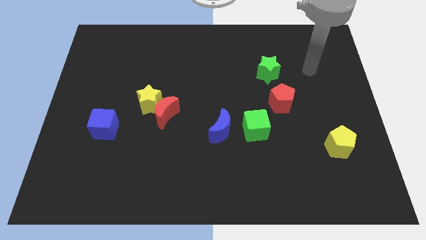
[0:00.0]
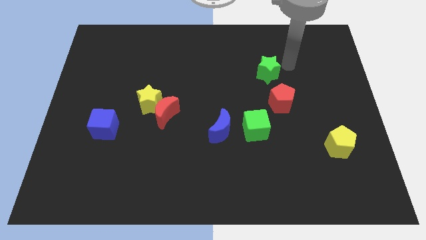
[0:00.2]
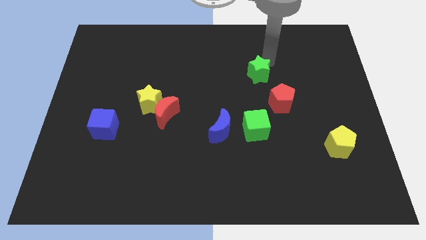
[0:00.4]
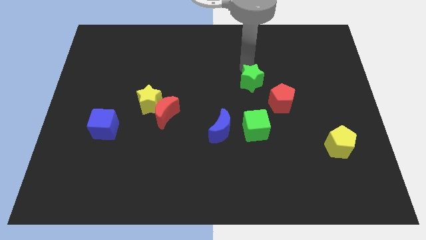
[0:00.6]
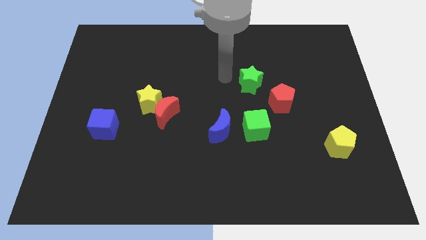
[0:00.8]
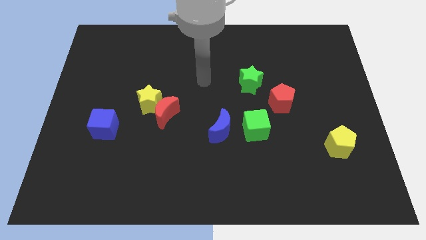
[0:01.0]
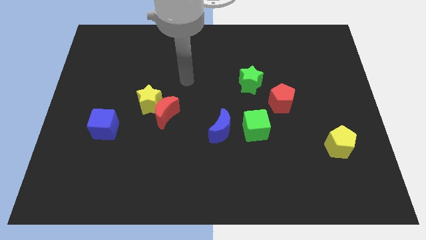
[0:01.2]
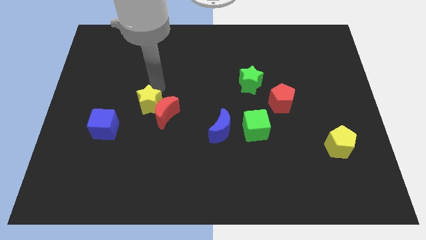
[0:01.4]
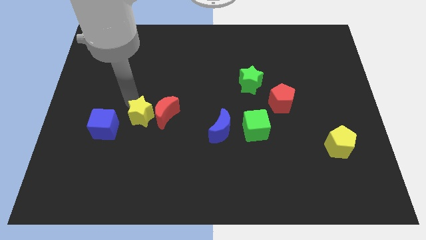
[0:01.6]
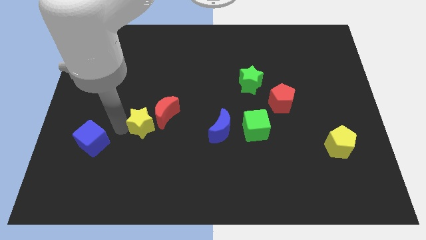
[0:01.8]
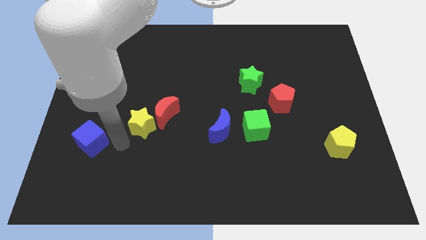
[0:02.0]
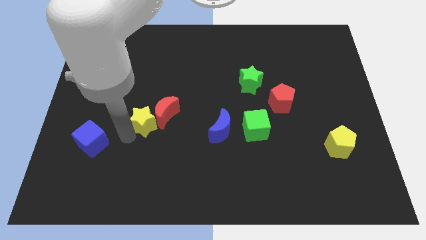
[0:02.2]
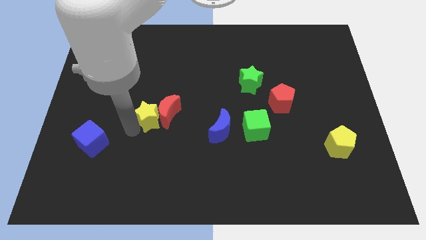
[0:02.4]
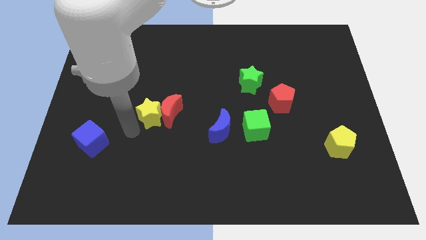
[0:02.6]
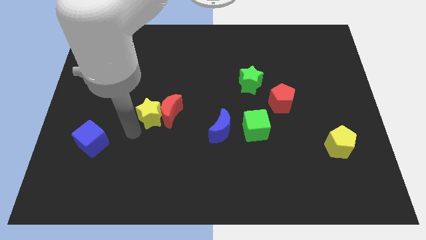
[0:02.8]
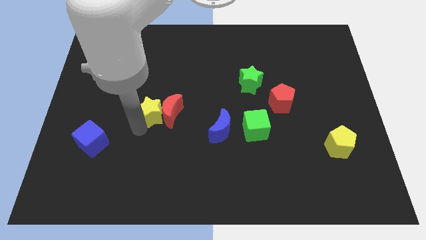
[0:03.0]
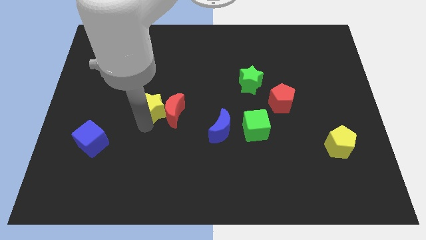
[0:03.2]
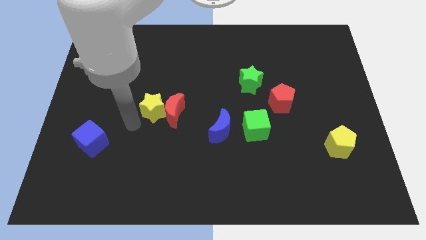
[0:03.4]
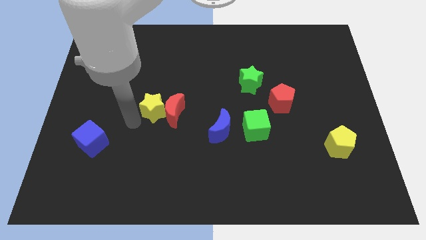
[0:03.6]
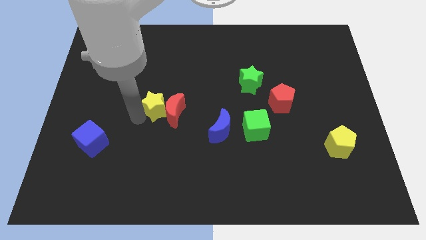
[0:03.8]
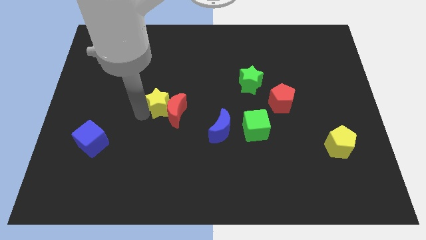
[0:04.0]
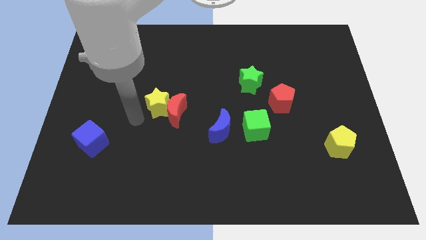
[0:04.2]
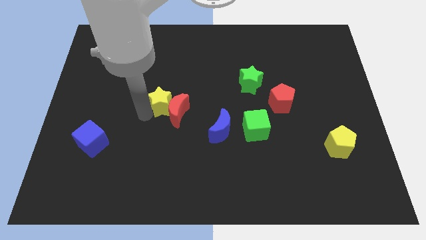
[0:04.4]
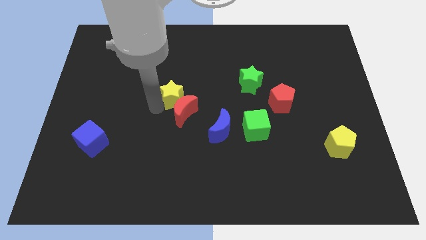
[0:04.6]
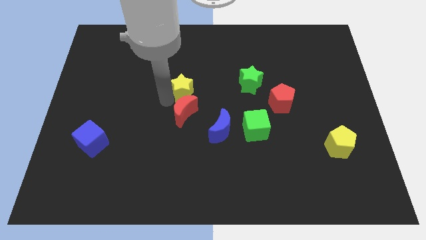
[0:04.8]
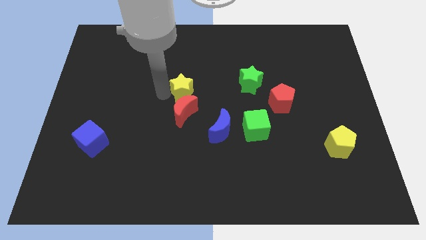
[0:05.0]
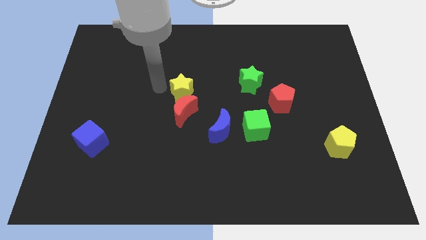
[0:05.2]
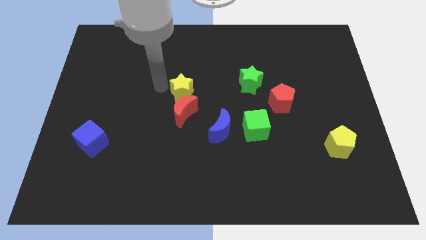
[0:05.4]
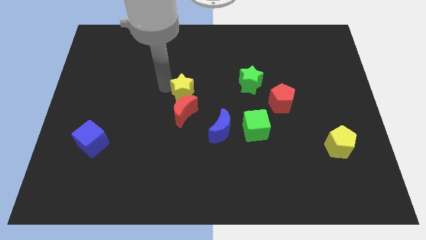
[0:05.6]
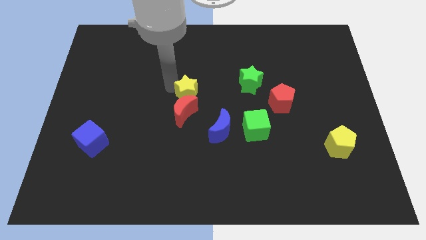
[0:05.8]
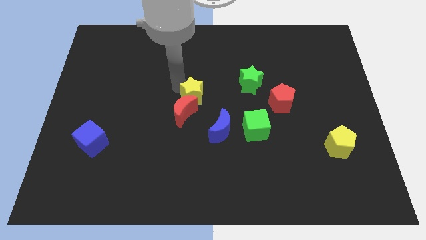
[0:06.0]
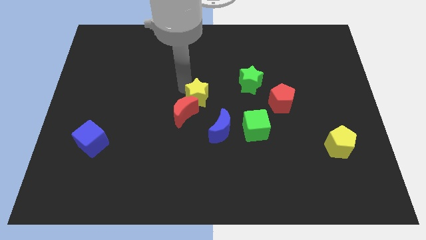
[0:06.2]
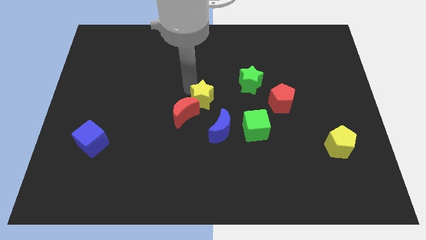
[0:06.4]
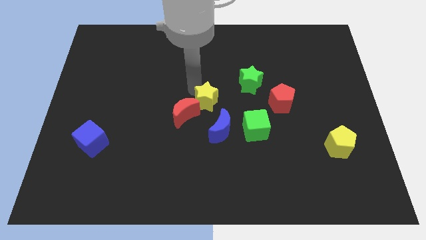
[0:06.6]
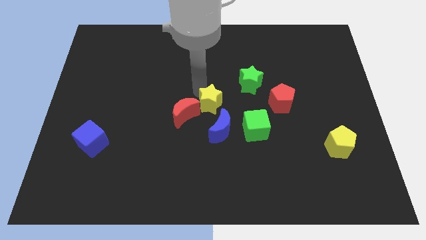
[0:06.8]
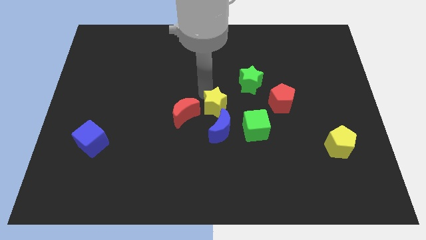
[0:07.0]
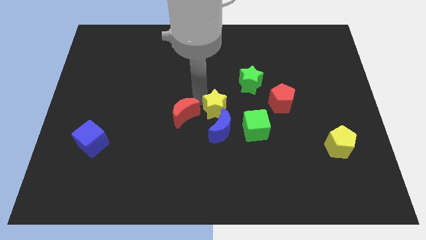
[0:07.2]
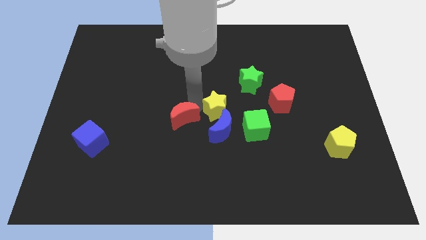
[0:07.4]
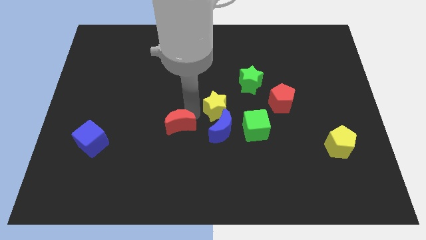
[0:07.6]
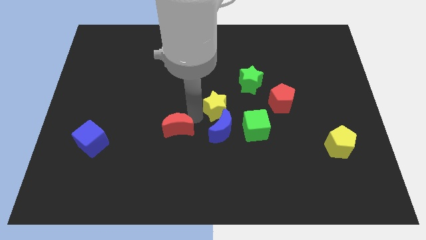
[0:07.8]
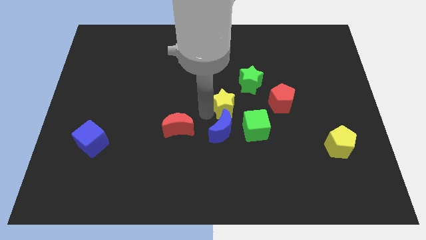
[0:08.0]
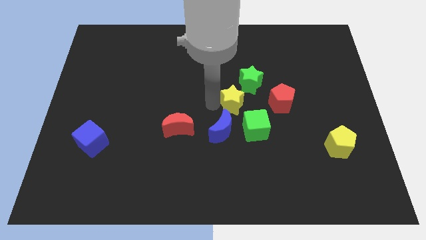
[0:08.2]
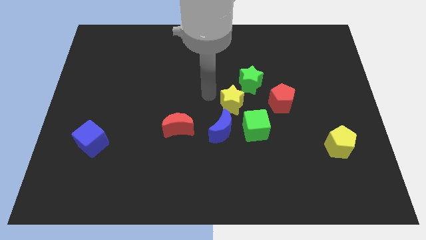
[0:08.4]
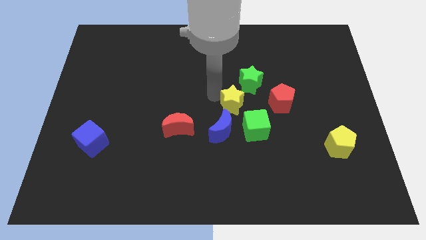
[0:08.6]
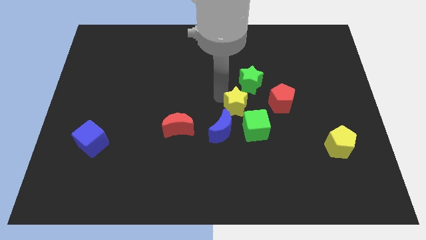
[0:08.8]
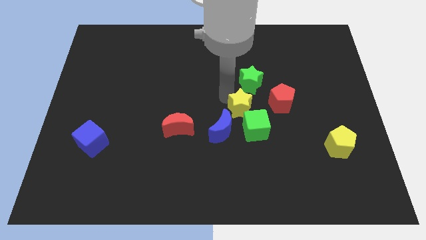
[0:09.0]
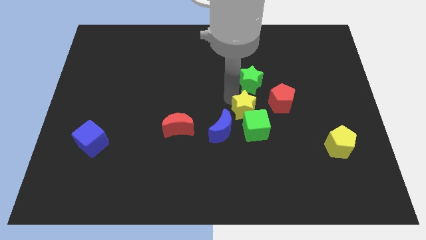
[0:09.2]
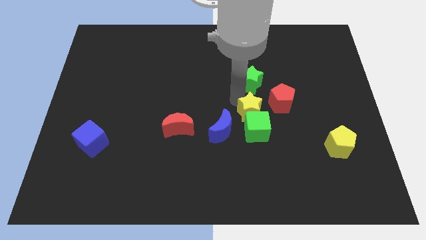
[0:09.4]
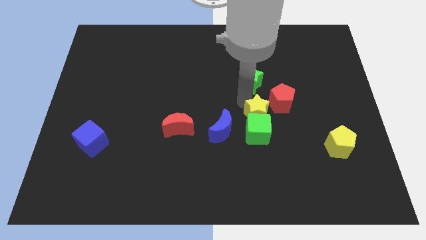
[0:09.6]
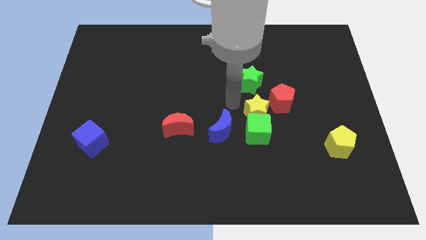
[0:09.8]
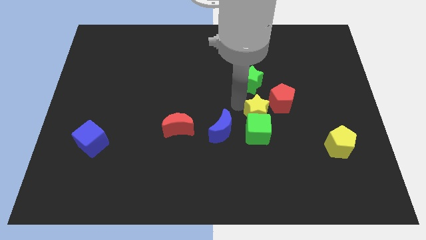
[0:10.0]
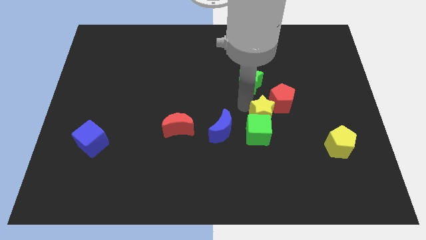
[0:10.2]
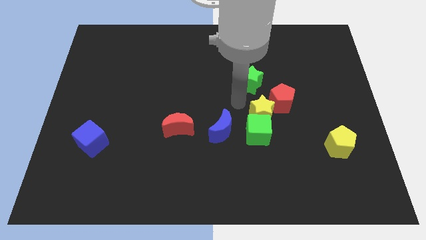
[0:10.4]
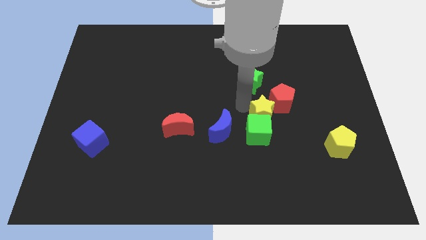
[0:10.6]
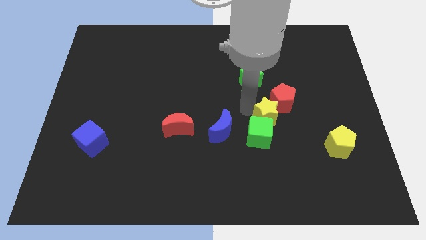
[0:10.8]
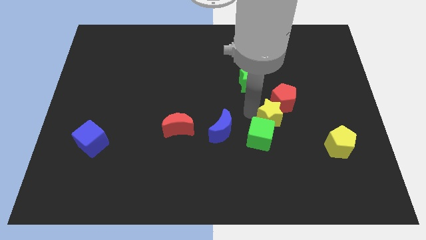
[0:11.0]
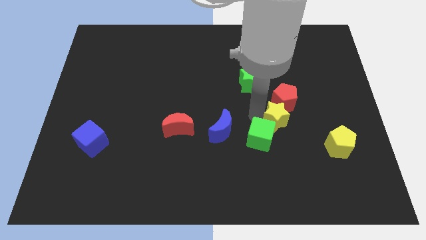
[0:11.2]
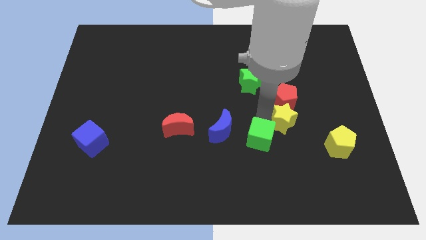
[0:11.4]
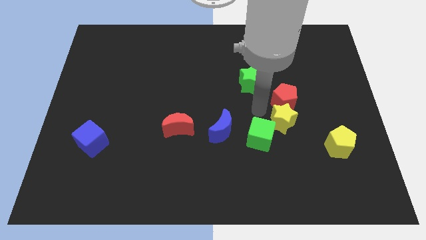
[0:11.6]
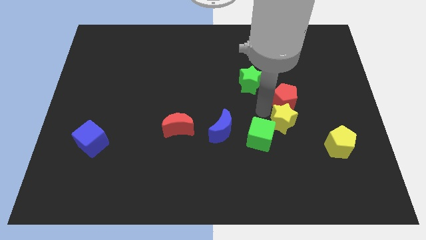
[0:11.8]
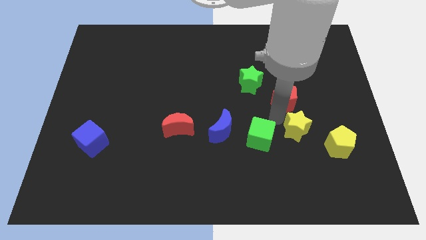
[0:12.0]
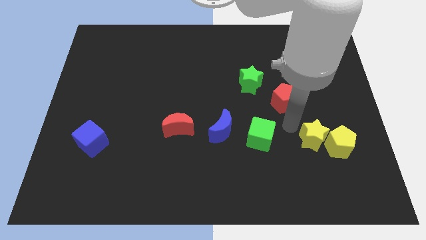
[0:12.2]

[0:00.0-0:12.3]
move the yellow star next to the yellow pentagon

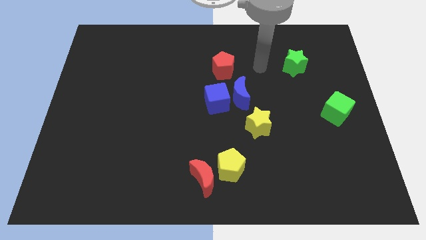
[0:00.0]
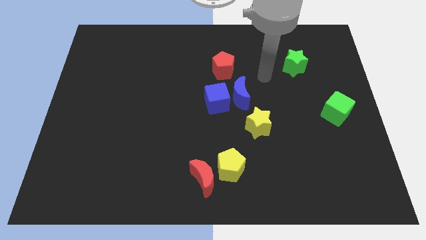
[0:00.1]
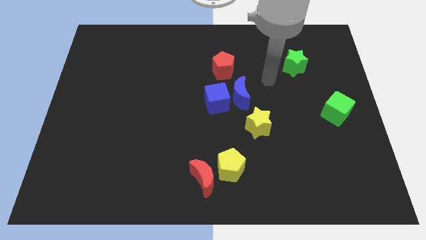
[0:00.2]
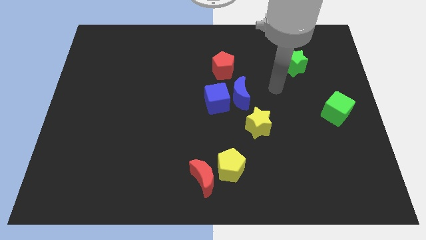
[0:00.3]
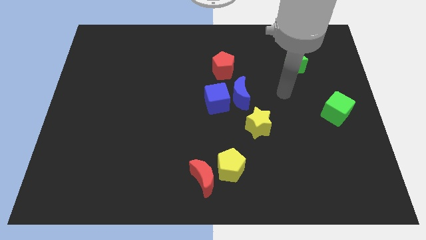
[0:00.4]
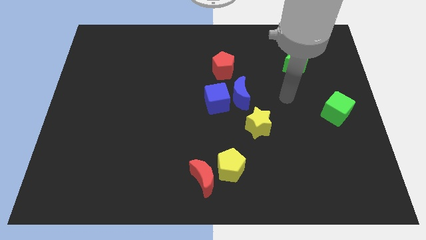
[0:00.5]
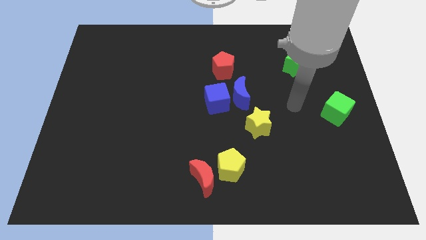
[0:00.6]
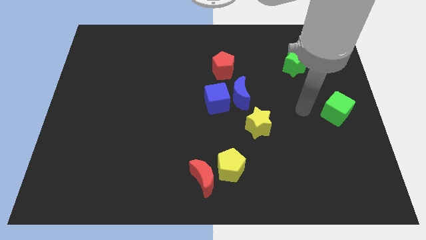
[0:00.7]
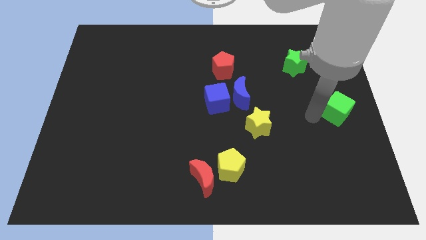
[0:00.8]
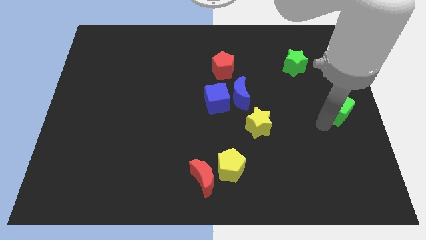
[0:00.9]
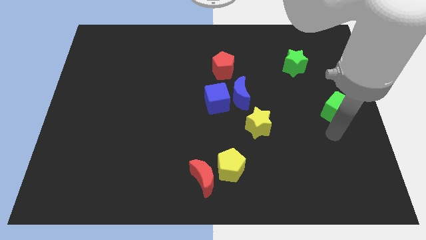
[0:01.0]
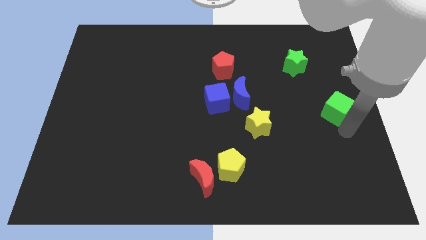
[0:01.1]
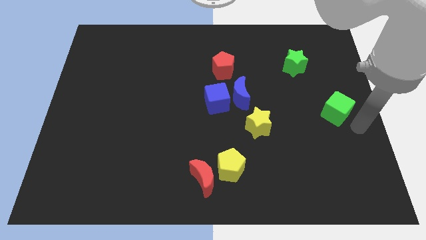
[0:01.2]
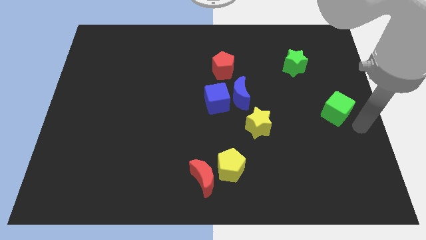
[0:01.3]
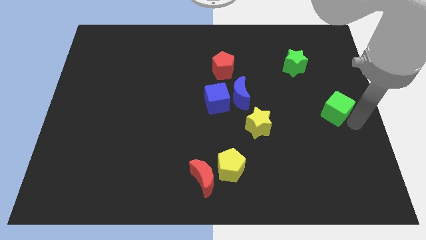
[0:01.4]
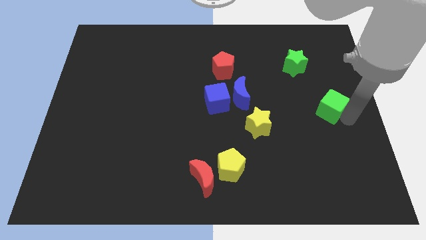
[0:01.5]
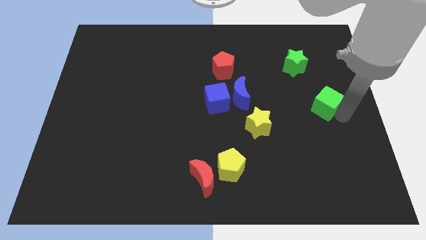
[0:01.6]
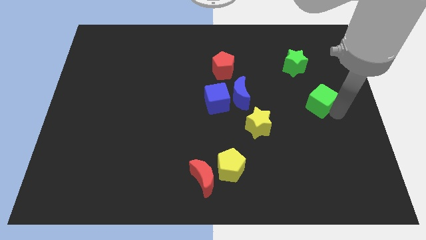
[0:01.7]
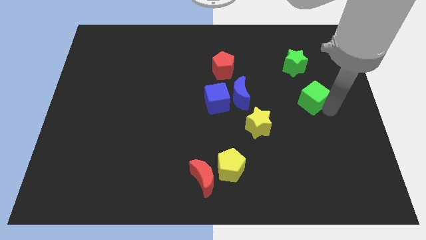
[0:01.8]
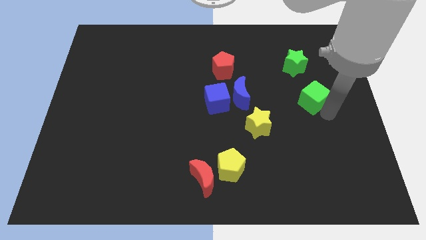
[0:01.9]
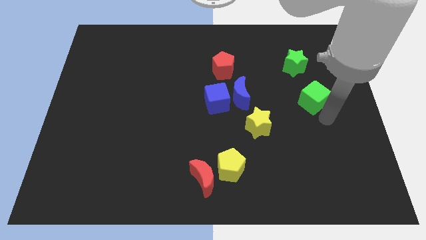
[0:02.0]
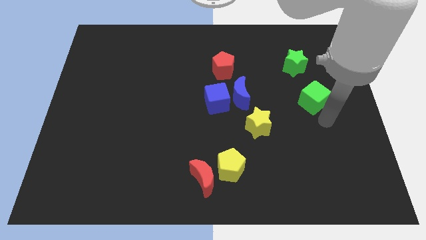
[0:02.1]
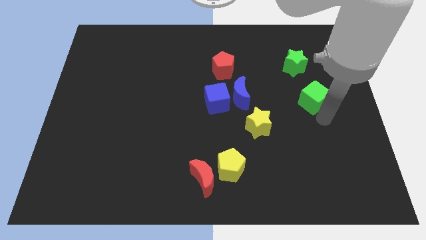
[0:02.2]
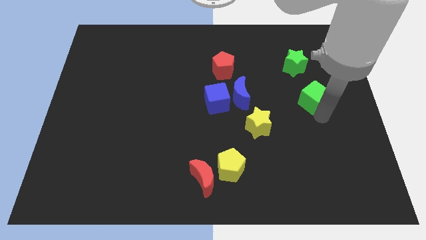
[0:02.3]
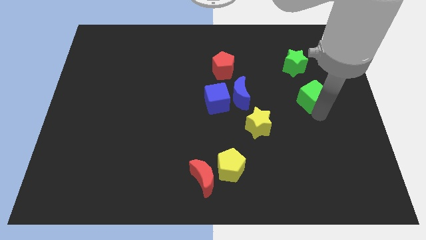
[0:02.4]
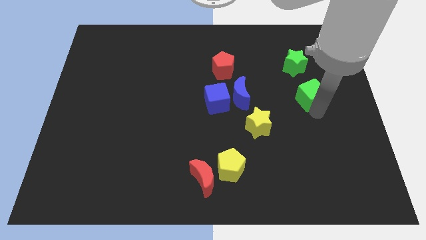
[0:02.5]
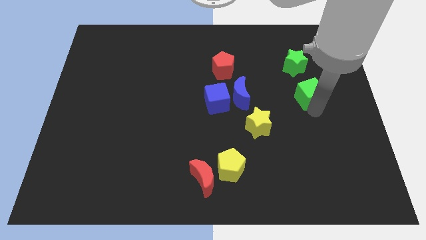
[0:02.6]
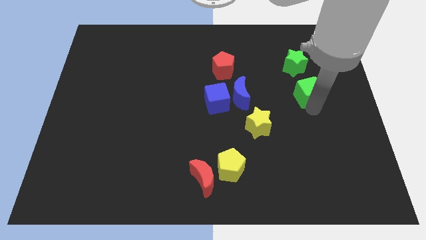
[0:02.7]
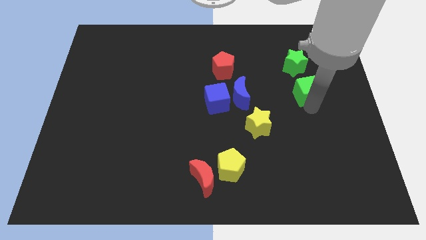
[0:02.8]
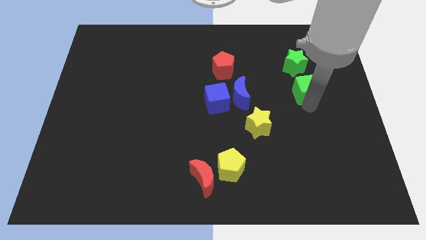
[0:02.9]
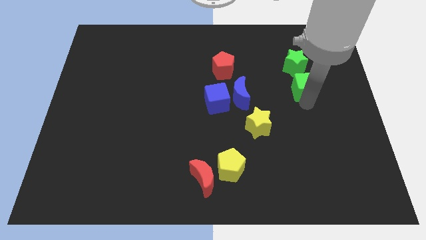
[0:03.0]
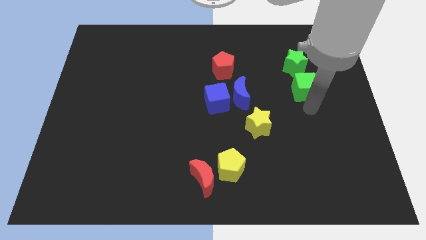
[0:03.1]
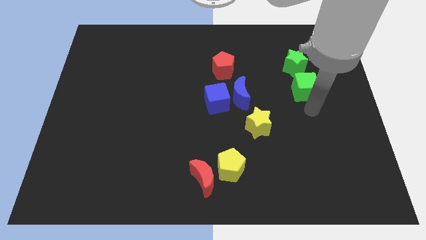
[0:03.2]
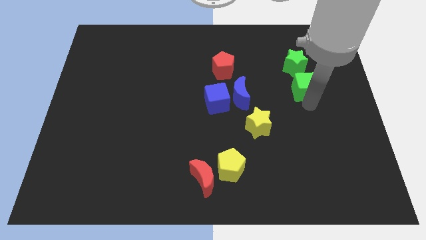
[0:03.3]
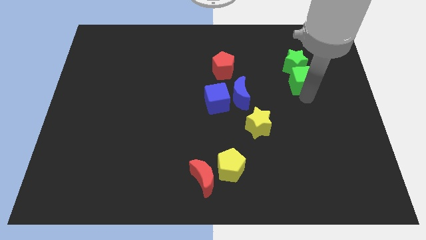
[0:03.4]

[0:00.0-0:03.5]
slide the green cube to the green star
